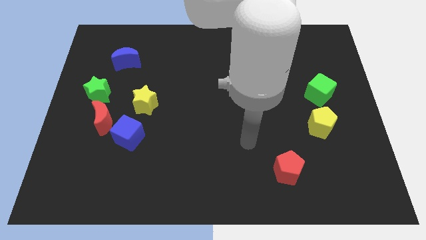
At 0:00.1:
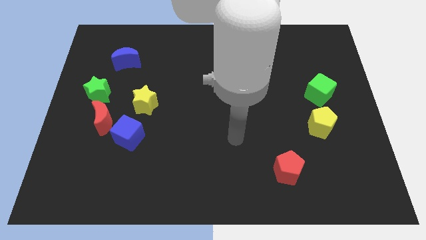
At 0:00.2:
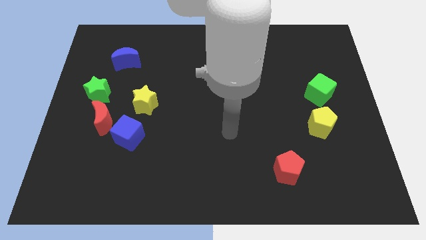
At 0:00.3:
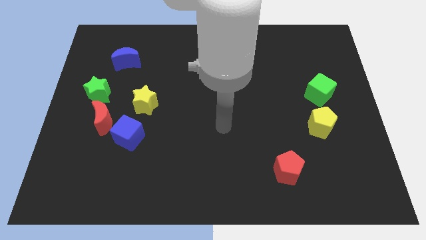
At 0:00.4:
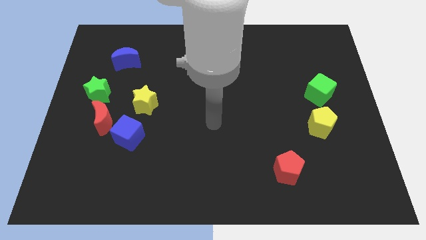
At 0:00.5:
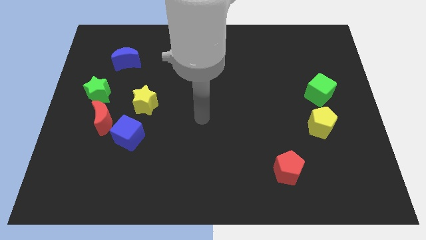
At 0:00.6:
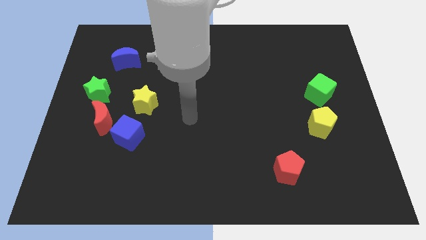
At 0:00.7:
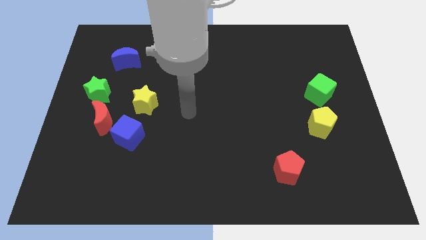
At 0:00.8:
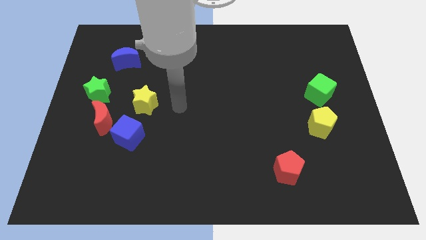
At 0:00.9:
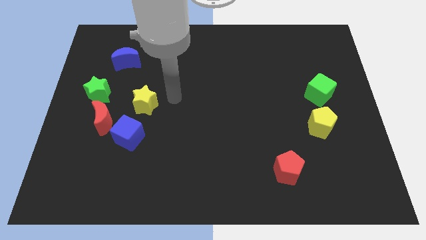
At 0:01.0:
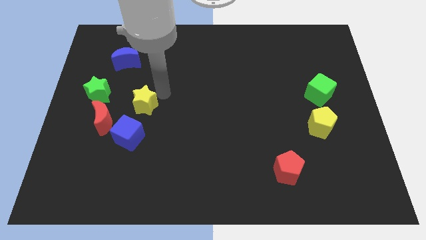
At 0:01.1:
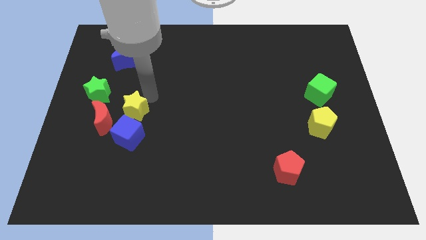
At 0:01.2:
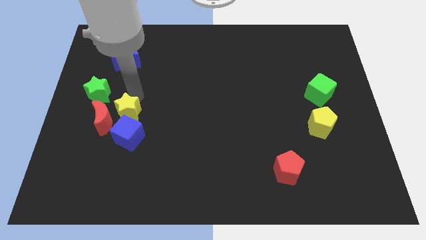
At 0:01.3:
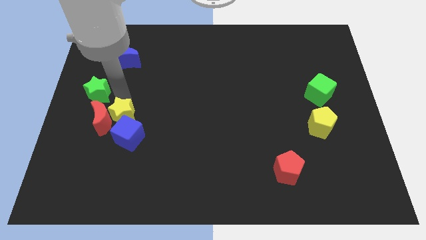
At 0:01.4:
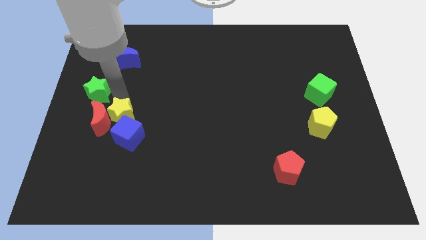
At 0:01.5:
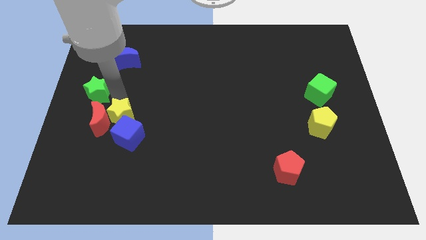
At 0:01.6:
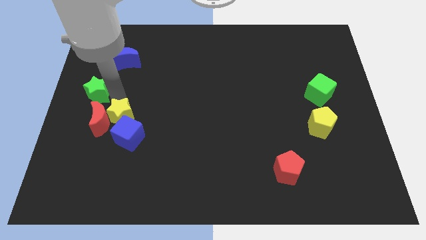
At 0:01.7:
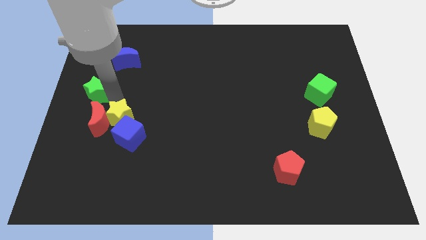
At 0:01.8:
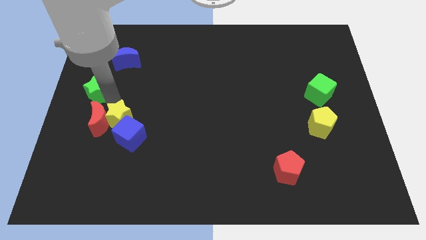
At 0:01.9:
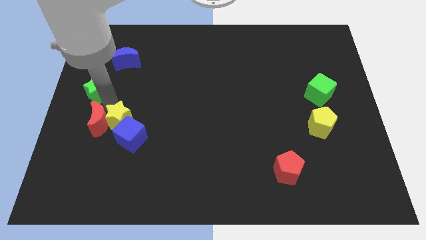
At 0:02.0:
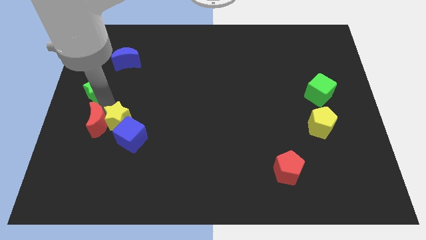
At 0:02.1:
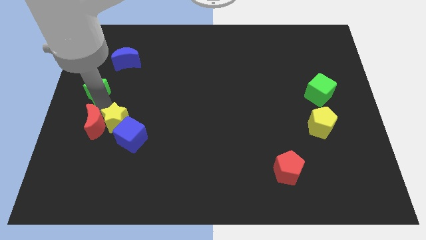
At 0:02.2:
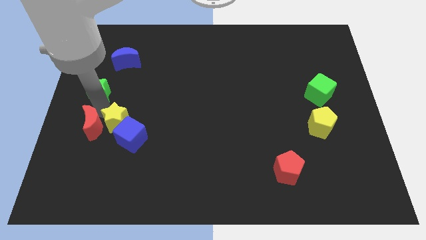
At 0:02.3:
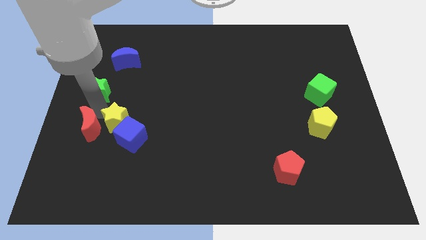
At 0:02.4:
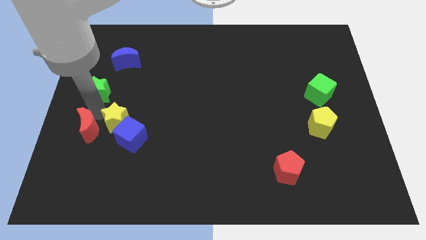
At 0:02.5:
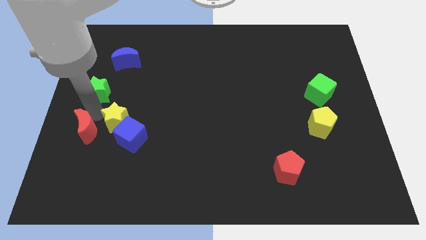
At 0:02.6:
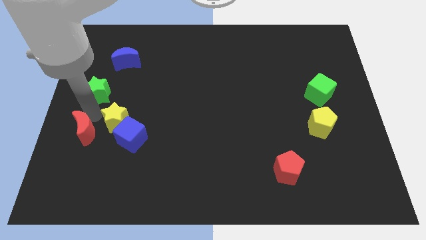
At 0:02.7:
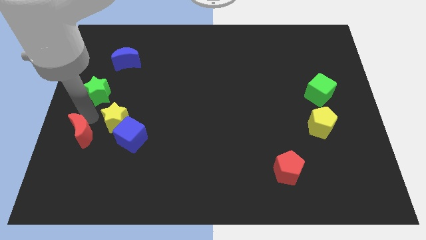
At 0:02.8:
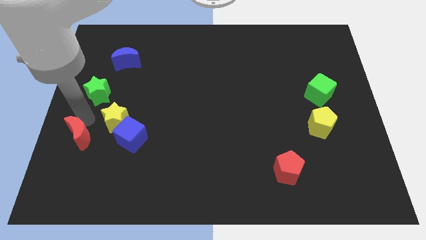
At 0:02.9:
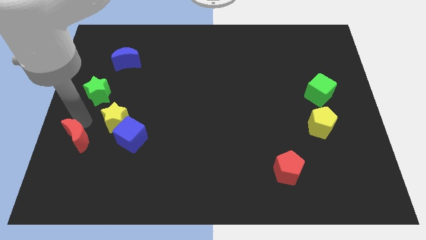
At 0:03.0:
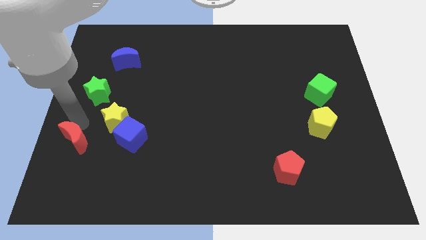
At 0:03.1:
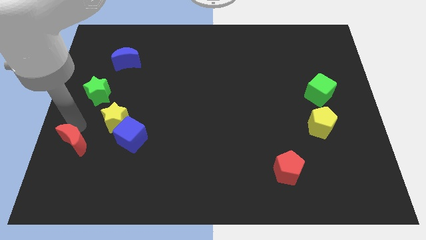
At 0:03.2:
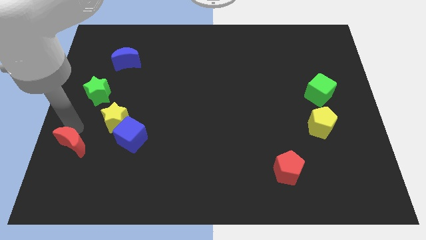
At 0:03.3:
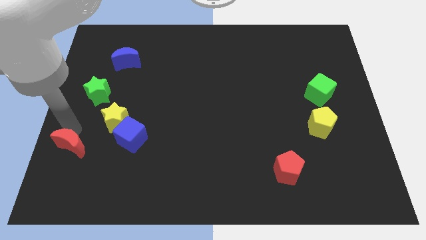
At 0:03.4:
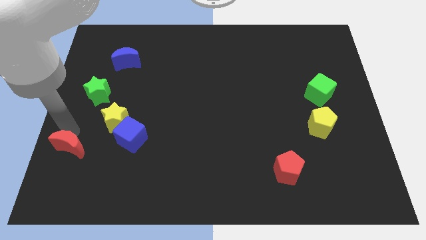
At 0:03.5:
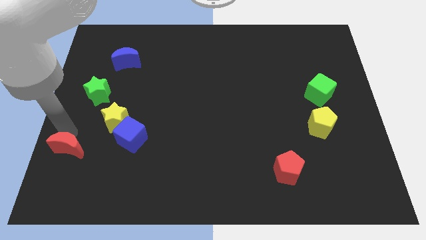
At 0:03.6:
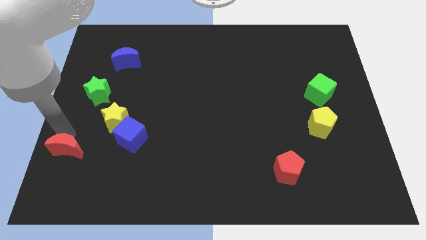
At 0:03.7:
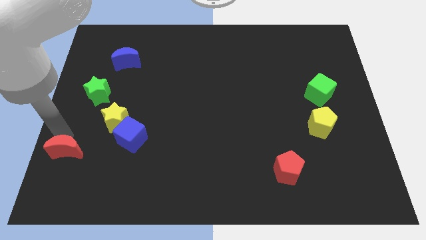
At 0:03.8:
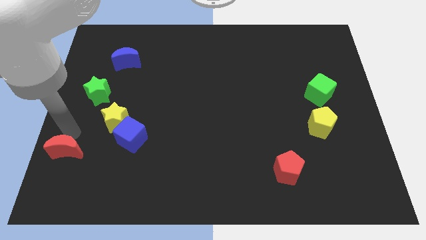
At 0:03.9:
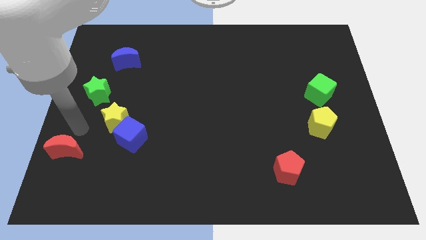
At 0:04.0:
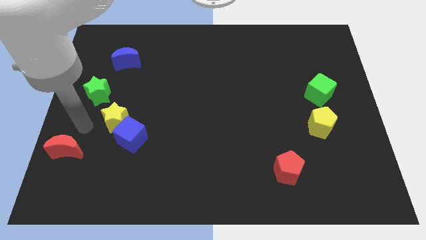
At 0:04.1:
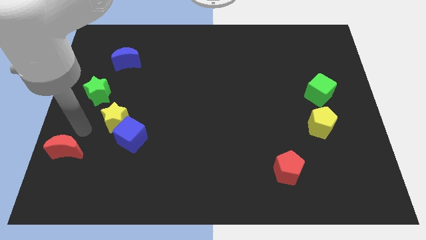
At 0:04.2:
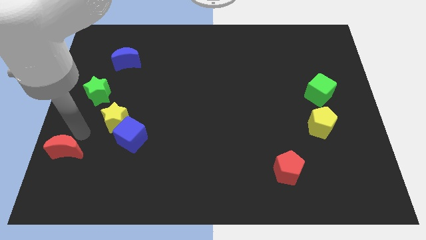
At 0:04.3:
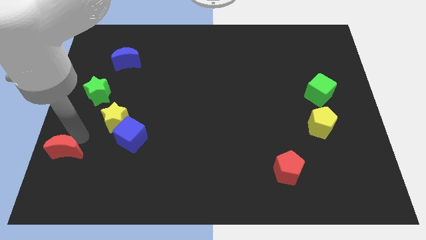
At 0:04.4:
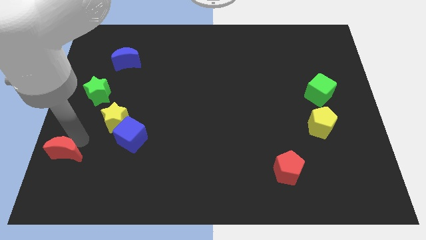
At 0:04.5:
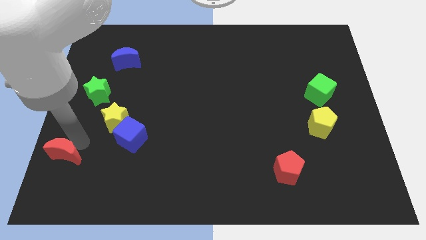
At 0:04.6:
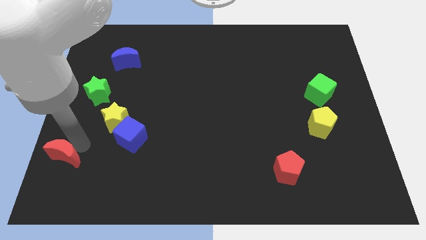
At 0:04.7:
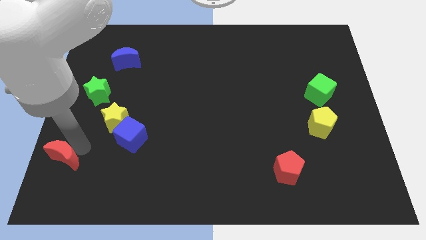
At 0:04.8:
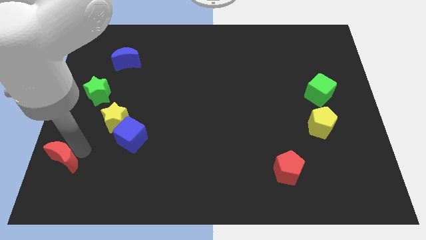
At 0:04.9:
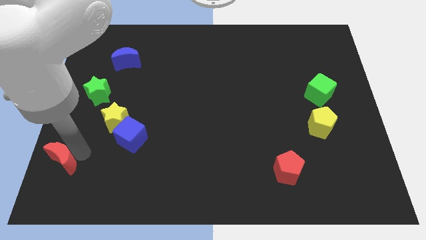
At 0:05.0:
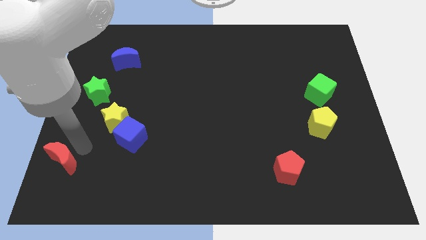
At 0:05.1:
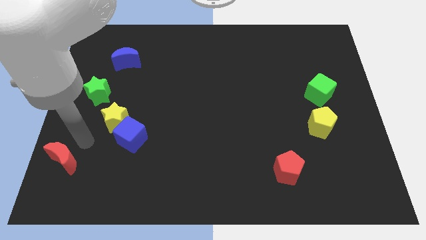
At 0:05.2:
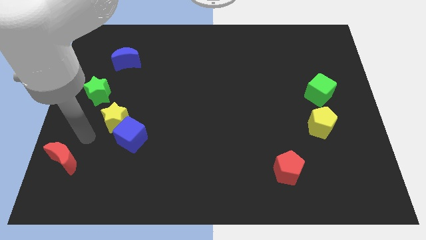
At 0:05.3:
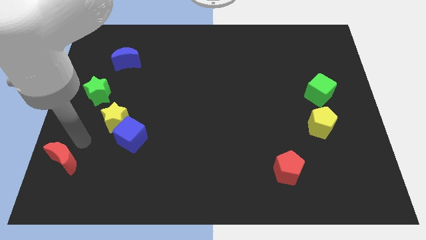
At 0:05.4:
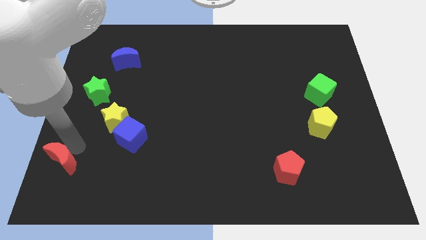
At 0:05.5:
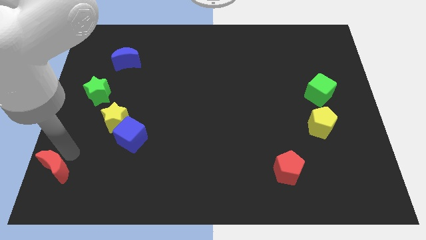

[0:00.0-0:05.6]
push the red moon to the bottom left corner

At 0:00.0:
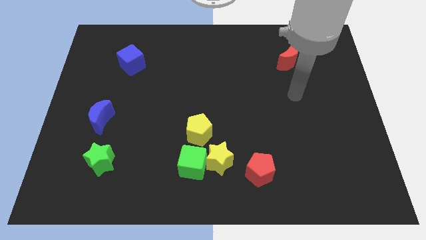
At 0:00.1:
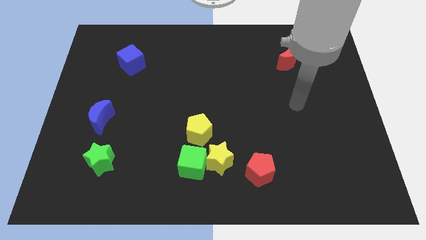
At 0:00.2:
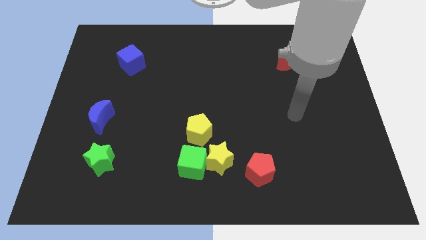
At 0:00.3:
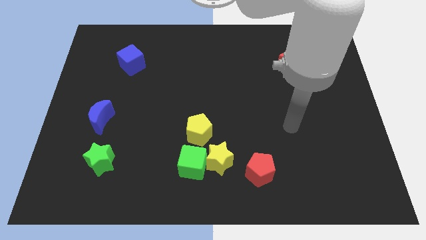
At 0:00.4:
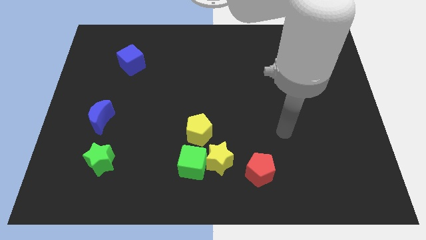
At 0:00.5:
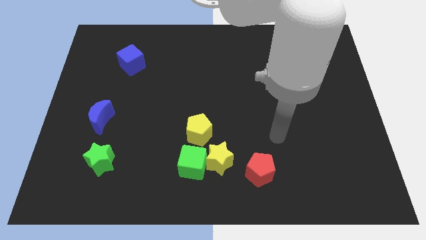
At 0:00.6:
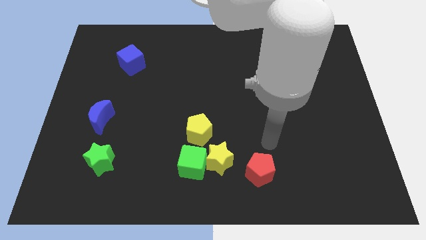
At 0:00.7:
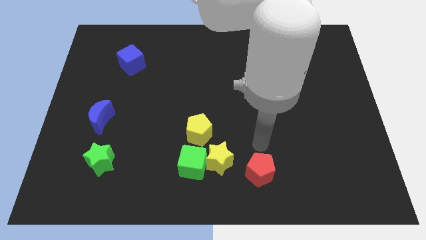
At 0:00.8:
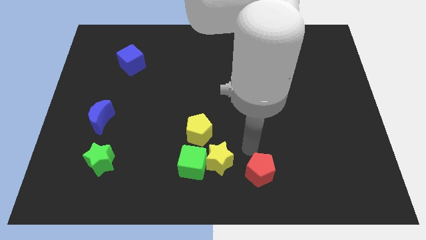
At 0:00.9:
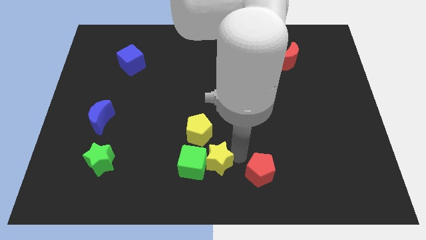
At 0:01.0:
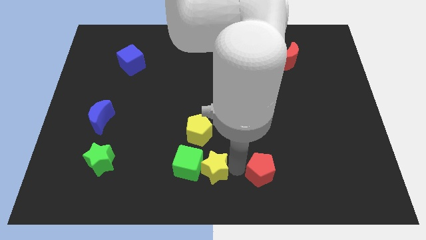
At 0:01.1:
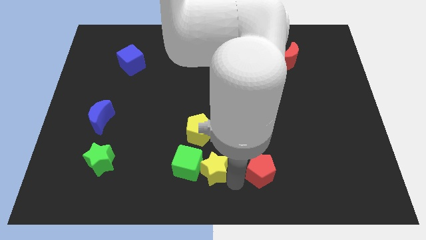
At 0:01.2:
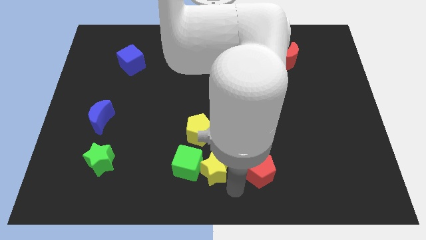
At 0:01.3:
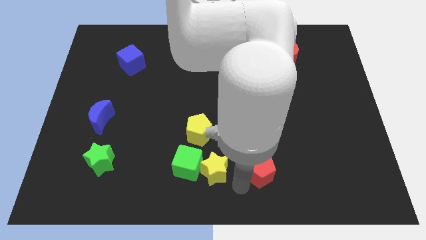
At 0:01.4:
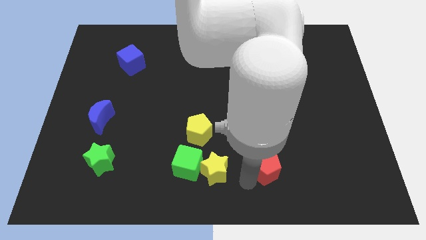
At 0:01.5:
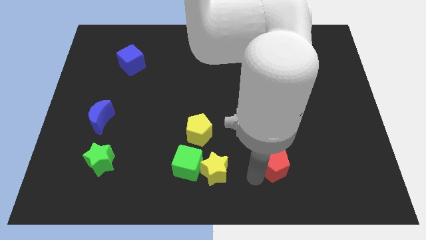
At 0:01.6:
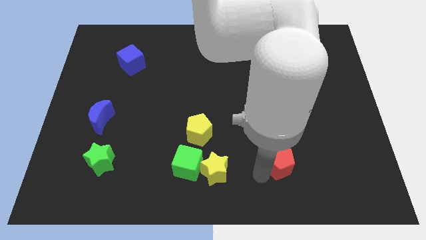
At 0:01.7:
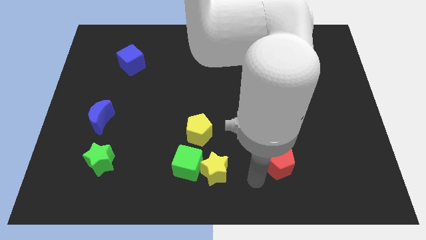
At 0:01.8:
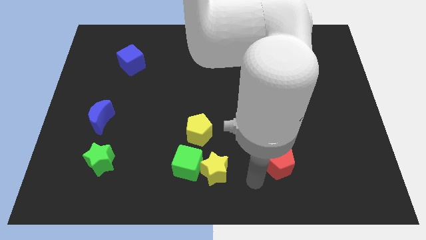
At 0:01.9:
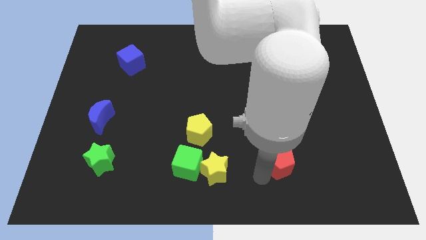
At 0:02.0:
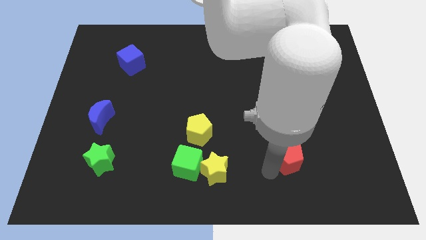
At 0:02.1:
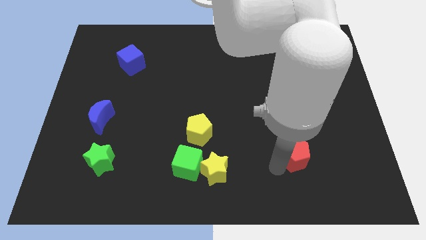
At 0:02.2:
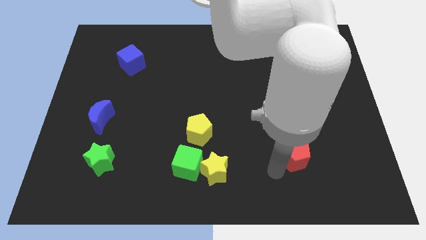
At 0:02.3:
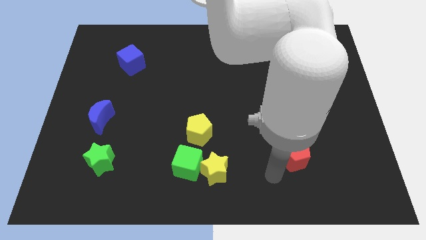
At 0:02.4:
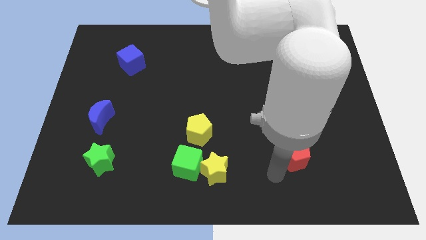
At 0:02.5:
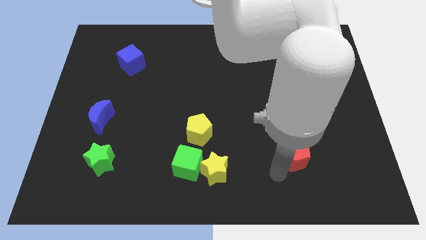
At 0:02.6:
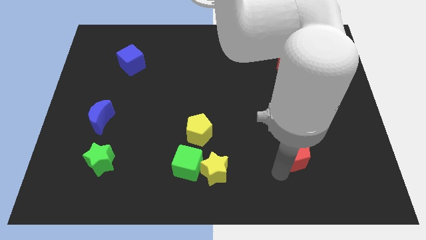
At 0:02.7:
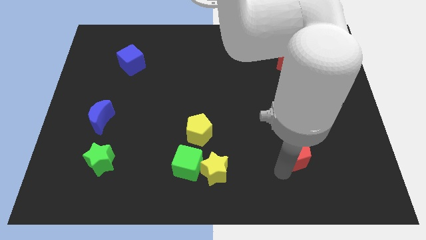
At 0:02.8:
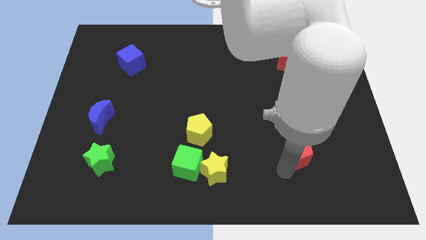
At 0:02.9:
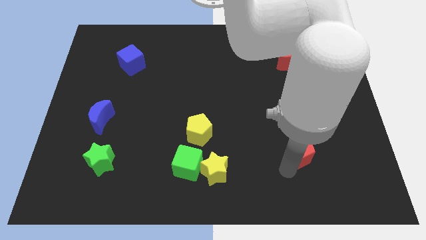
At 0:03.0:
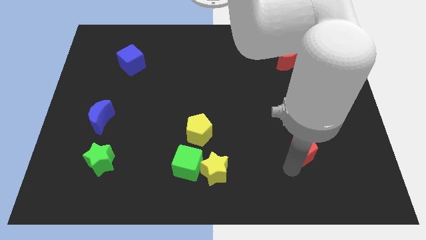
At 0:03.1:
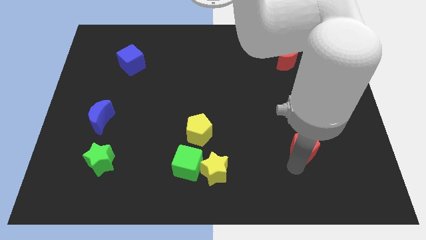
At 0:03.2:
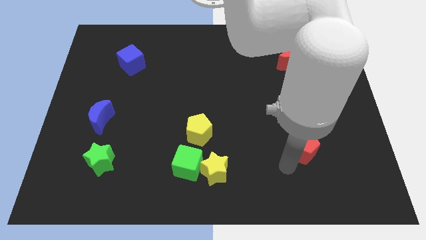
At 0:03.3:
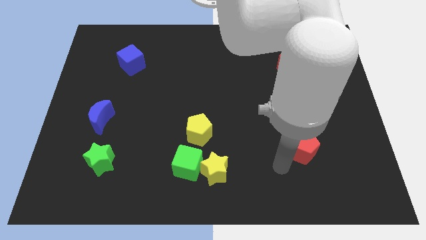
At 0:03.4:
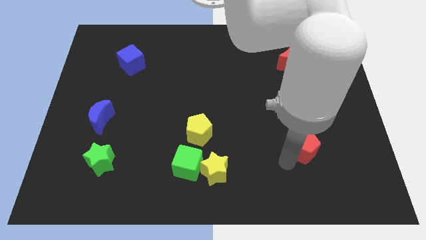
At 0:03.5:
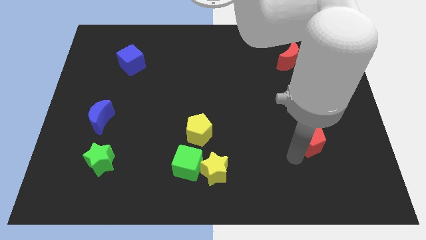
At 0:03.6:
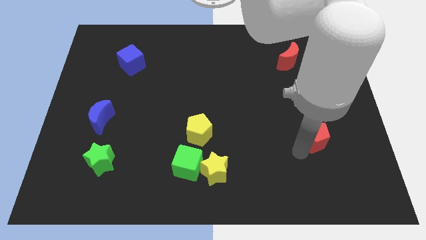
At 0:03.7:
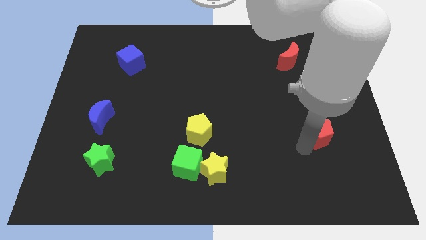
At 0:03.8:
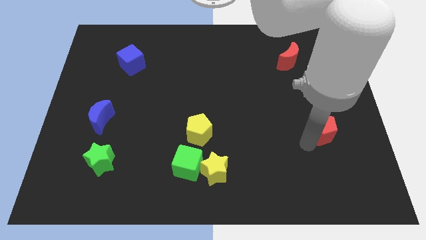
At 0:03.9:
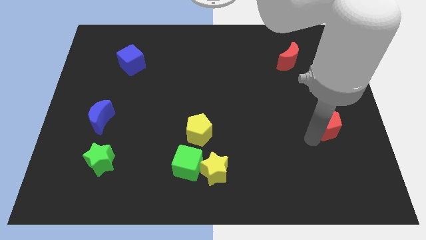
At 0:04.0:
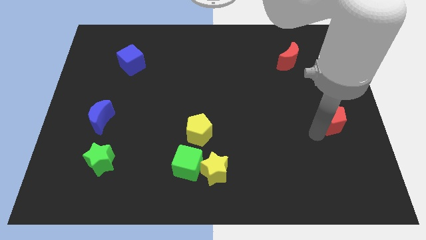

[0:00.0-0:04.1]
move the red pentagon to the right side of the board
